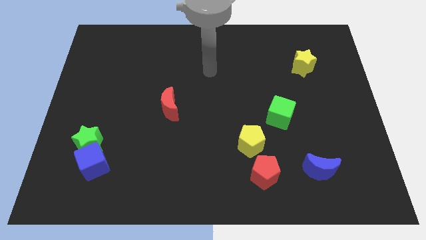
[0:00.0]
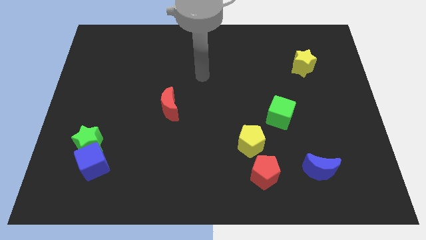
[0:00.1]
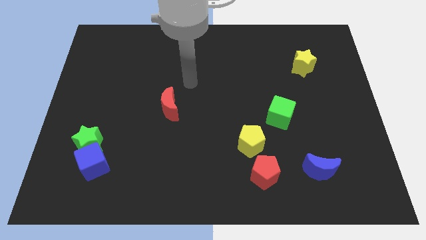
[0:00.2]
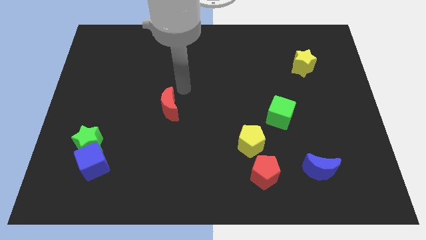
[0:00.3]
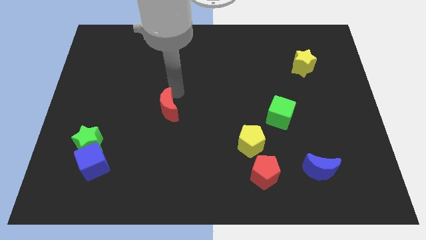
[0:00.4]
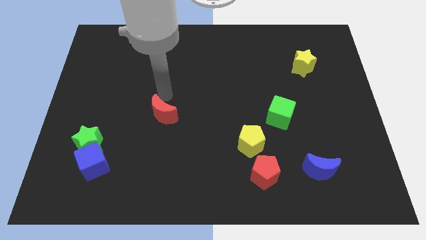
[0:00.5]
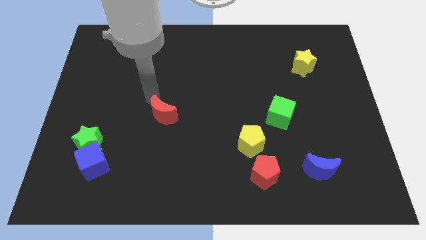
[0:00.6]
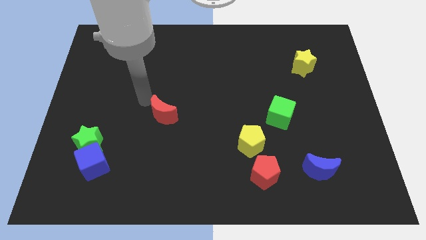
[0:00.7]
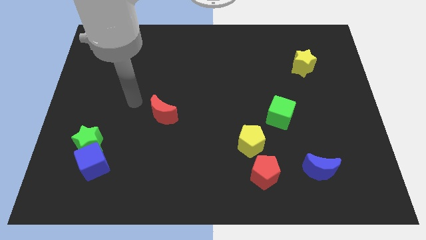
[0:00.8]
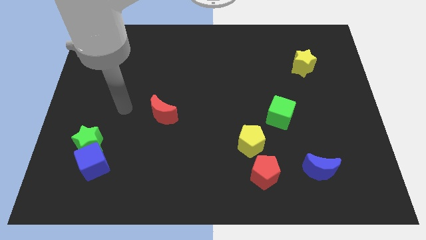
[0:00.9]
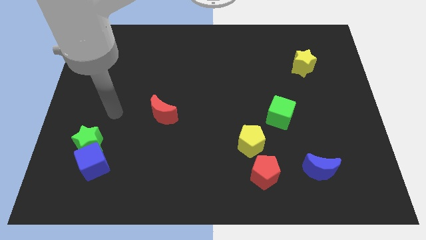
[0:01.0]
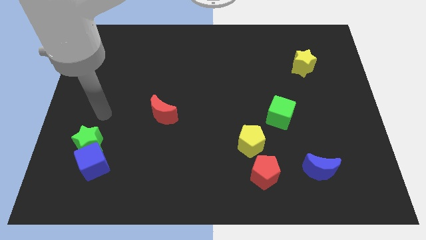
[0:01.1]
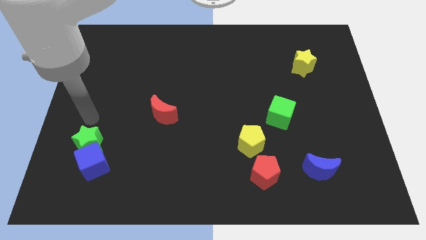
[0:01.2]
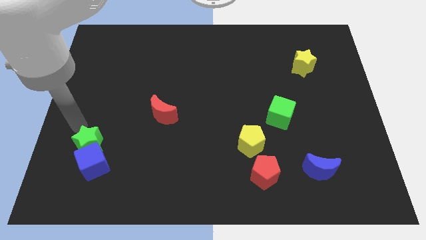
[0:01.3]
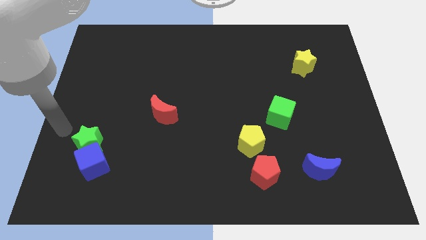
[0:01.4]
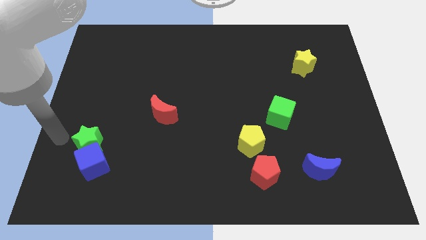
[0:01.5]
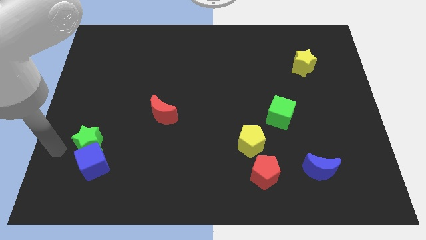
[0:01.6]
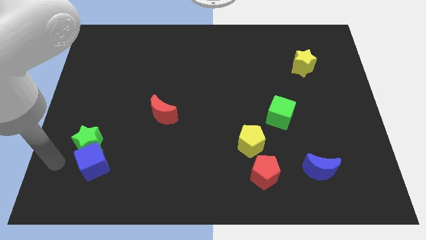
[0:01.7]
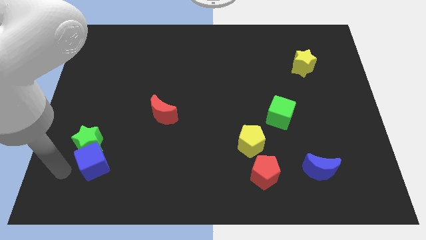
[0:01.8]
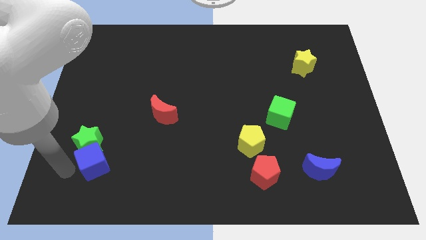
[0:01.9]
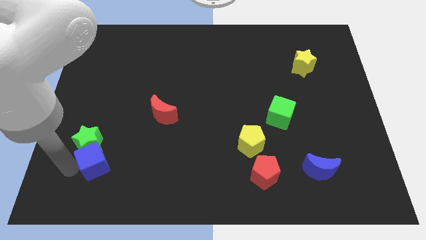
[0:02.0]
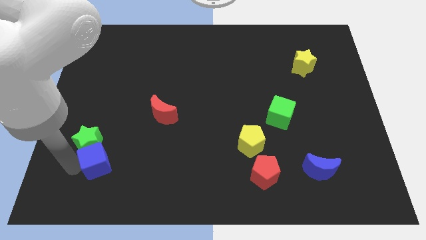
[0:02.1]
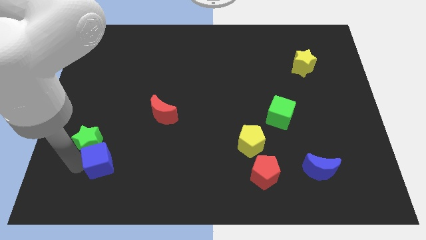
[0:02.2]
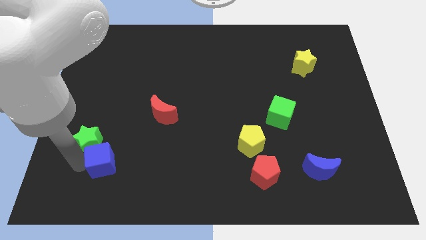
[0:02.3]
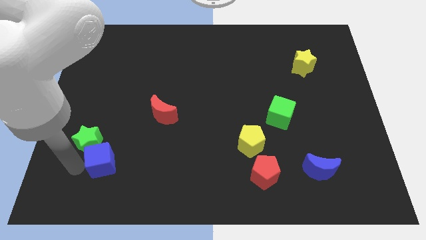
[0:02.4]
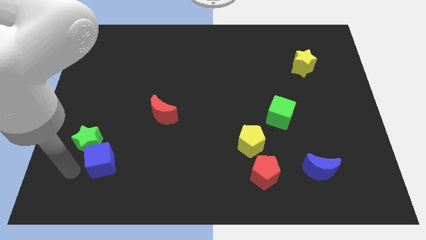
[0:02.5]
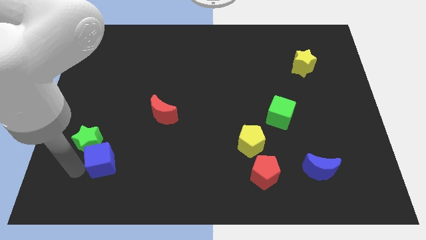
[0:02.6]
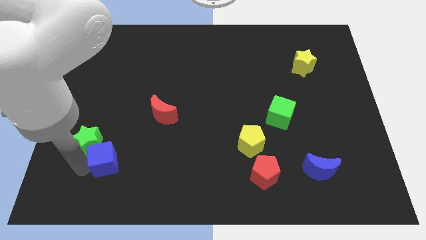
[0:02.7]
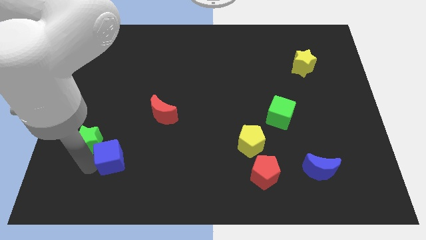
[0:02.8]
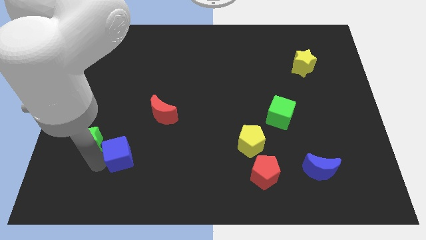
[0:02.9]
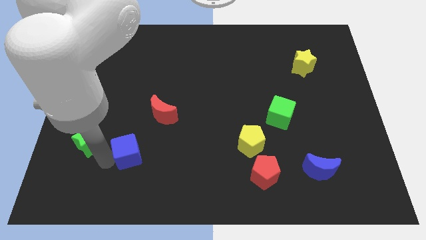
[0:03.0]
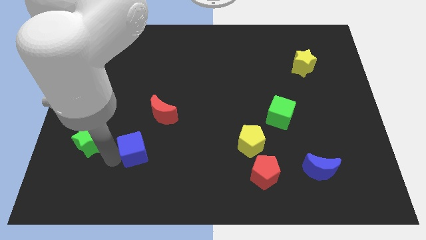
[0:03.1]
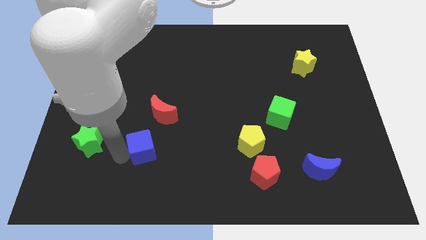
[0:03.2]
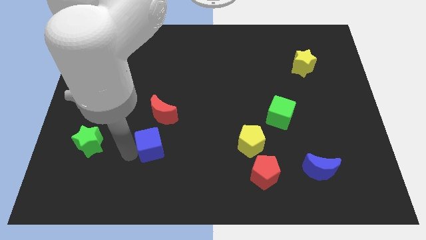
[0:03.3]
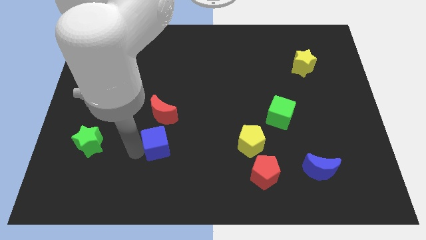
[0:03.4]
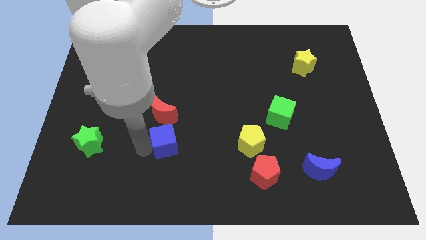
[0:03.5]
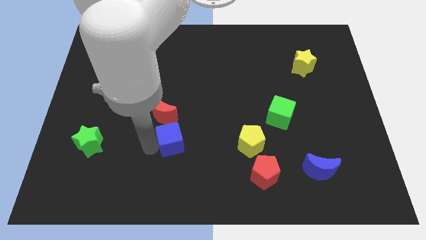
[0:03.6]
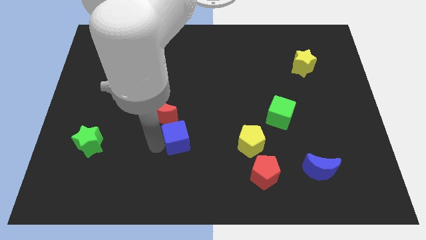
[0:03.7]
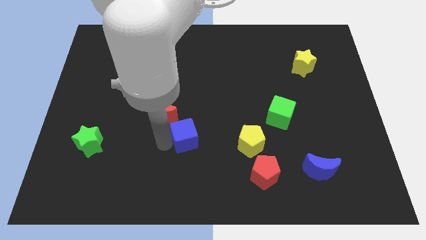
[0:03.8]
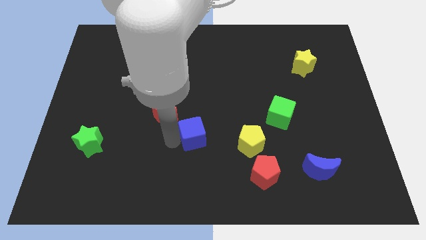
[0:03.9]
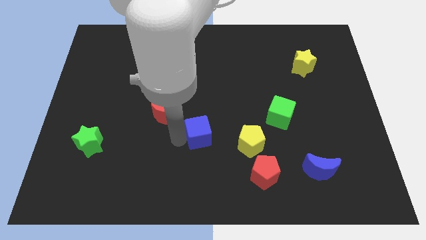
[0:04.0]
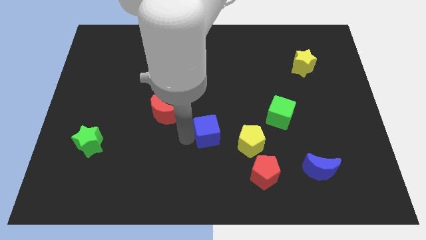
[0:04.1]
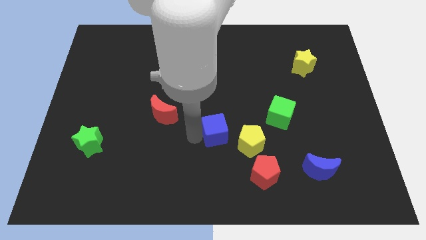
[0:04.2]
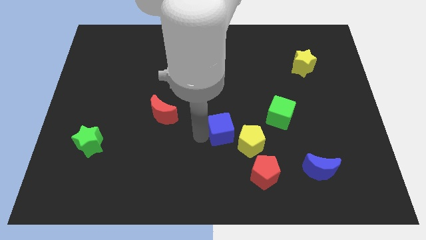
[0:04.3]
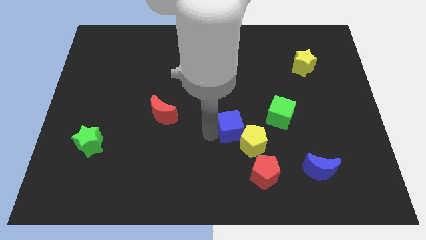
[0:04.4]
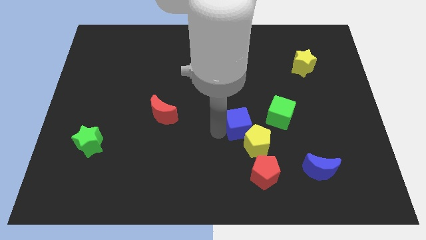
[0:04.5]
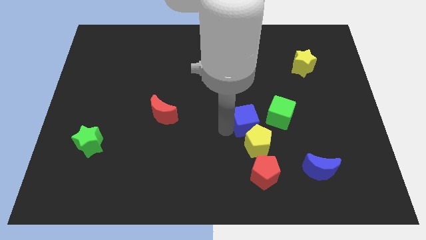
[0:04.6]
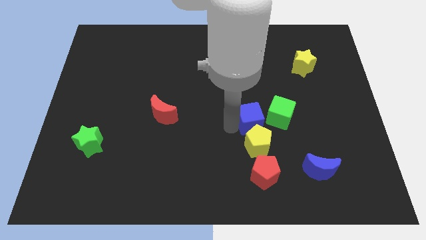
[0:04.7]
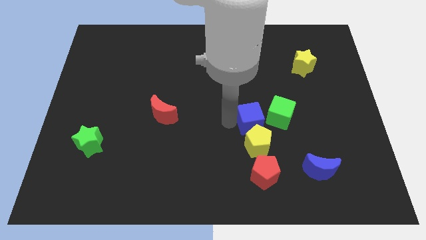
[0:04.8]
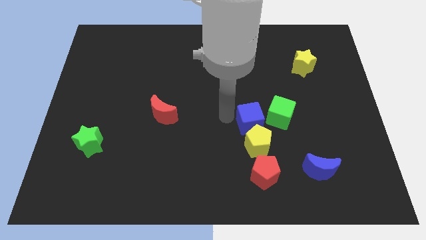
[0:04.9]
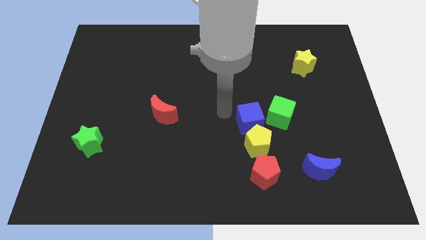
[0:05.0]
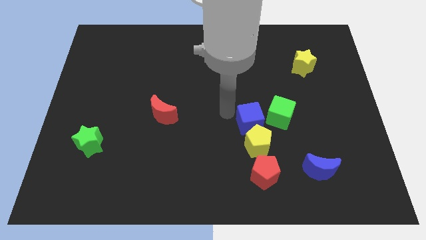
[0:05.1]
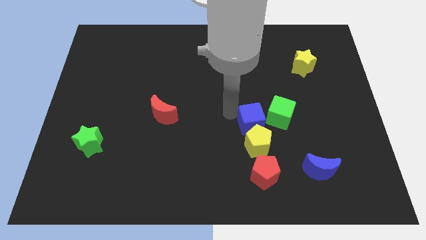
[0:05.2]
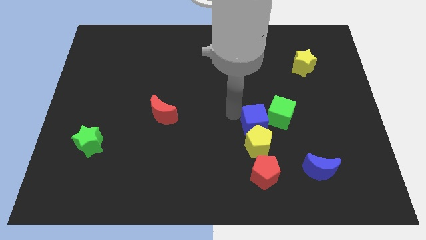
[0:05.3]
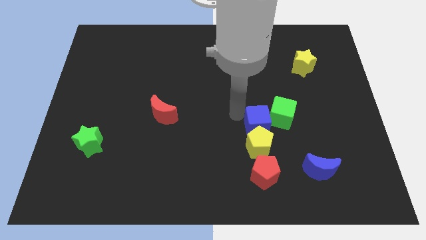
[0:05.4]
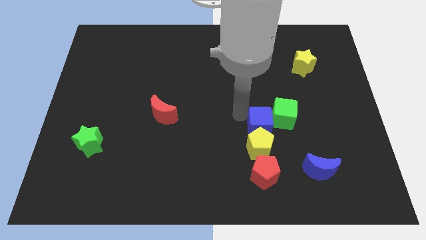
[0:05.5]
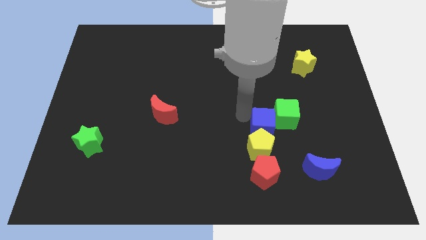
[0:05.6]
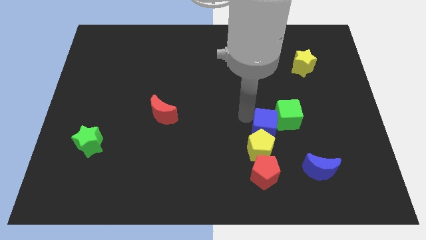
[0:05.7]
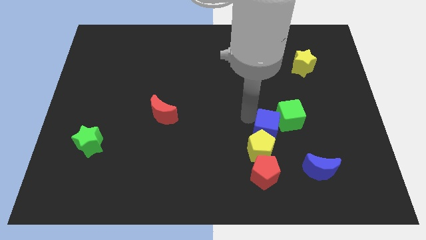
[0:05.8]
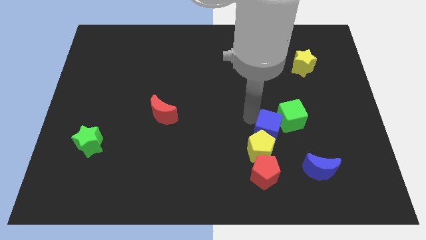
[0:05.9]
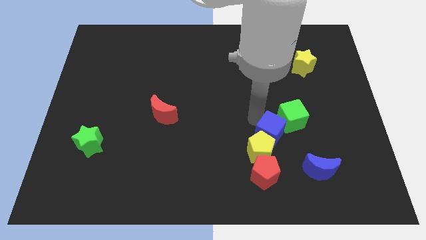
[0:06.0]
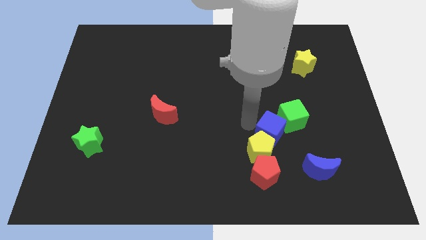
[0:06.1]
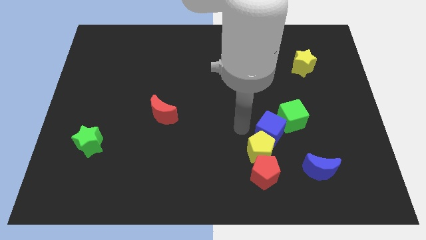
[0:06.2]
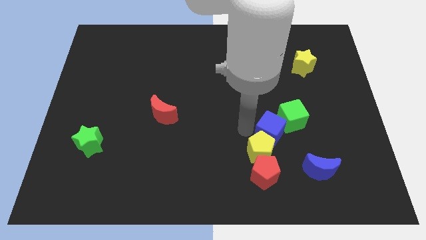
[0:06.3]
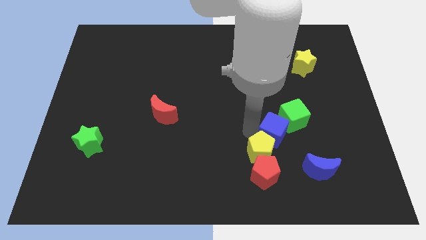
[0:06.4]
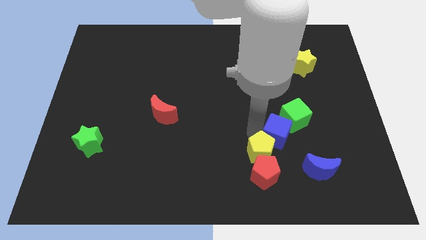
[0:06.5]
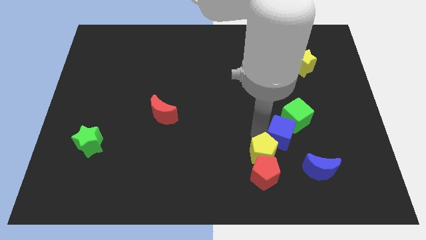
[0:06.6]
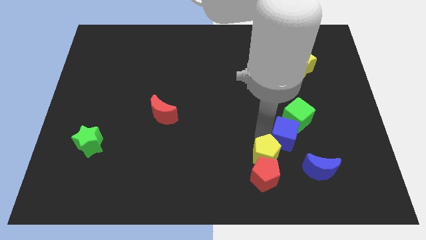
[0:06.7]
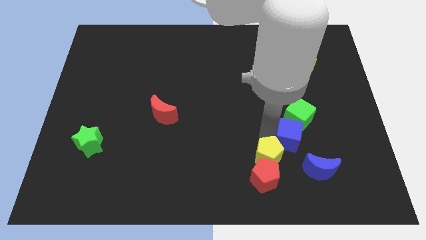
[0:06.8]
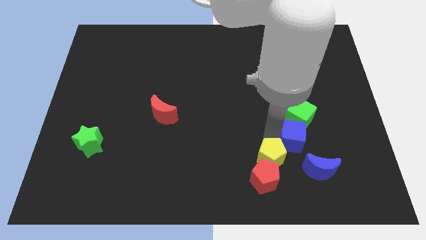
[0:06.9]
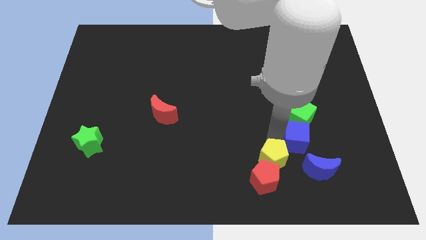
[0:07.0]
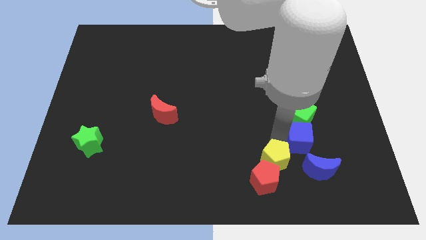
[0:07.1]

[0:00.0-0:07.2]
slide the blue cube to the bottom right side of the green cube
